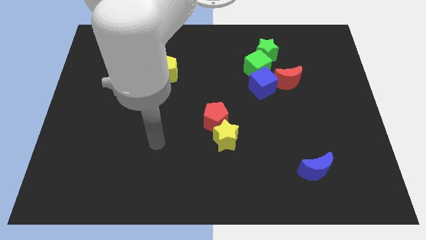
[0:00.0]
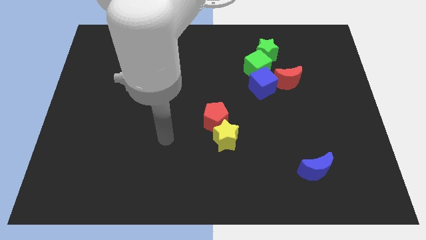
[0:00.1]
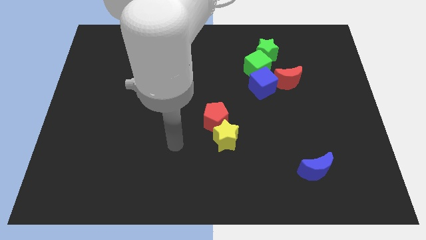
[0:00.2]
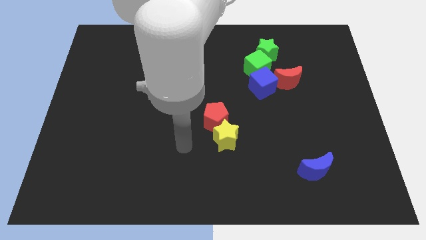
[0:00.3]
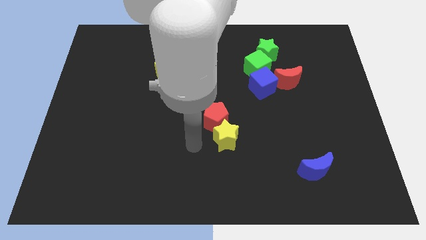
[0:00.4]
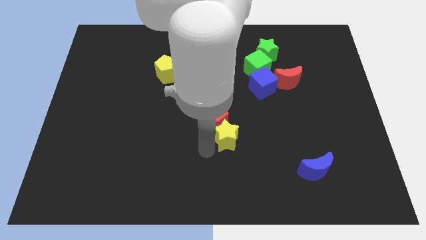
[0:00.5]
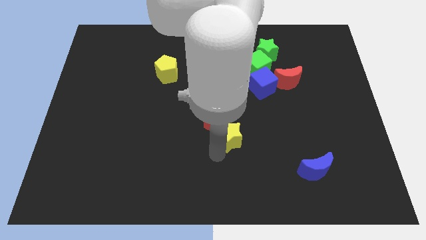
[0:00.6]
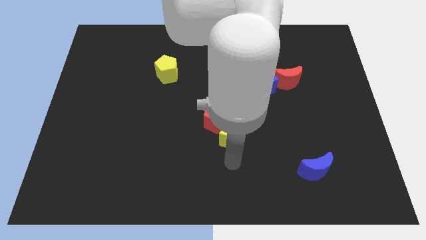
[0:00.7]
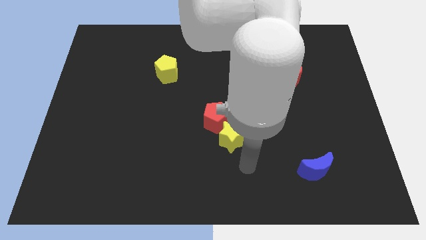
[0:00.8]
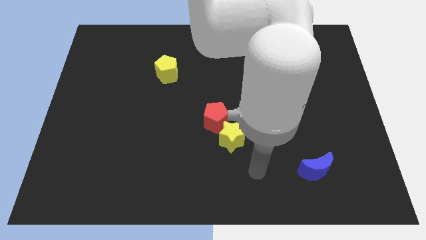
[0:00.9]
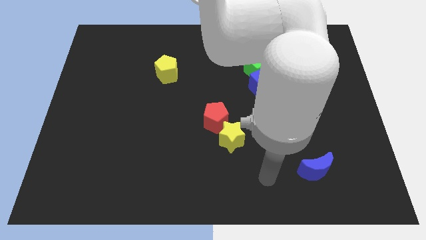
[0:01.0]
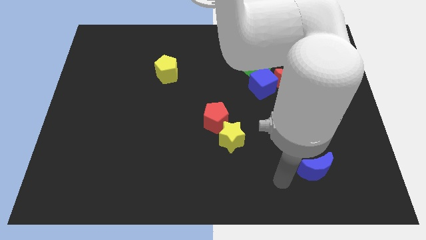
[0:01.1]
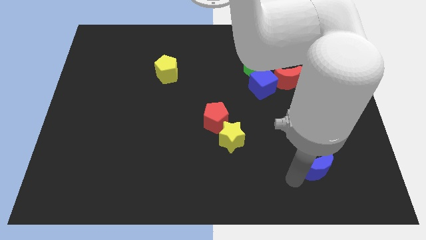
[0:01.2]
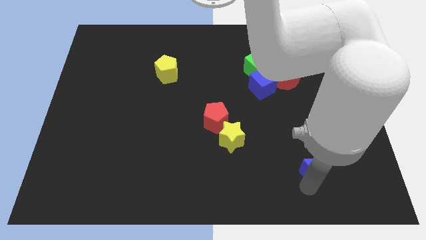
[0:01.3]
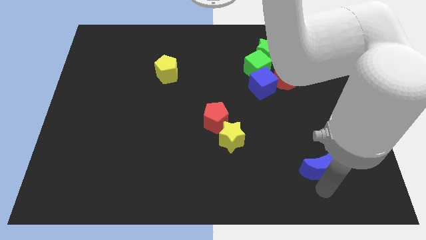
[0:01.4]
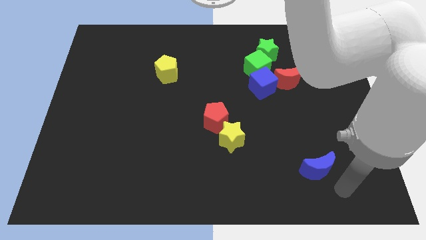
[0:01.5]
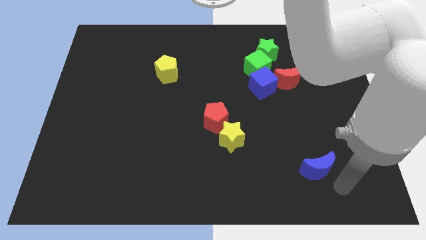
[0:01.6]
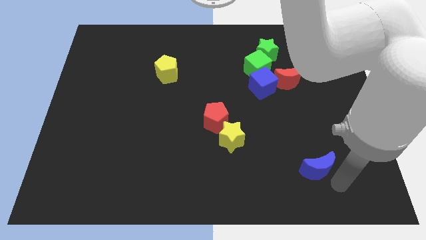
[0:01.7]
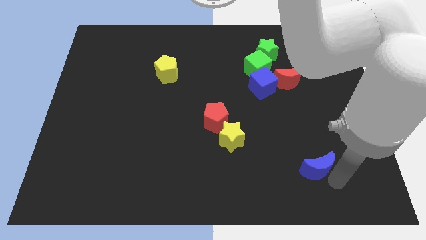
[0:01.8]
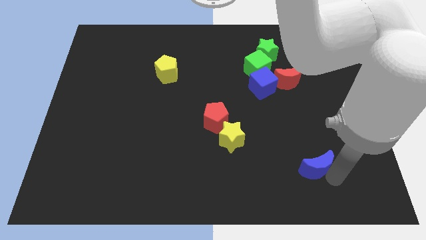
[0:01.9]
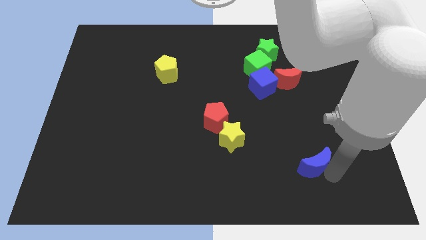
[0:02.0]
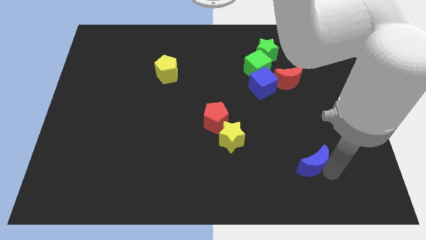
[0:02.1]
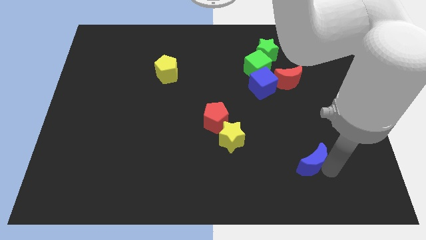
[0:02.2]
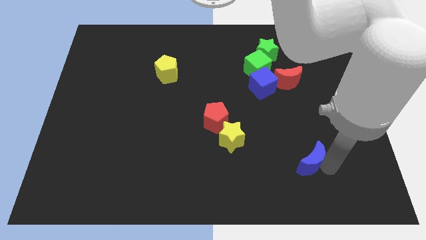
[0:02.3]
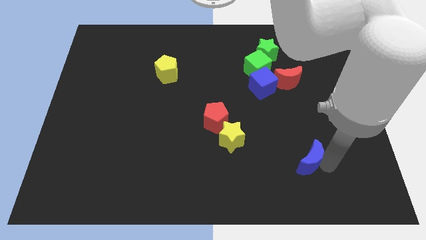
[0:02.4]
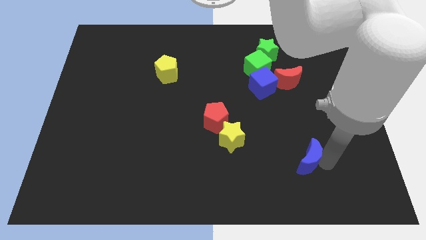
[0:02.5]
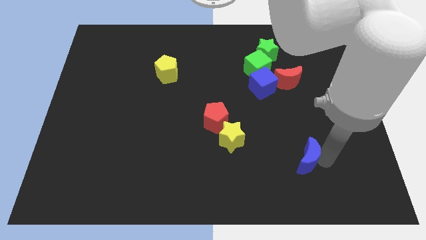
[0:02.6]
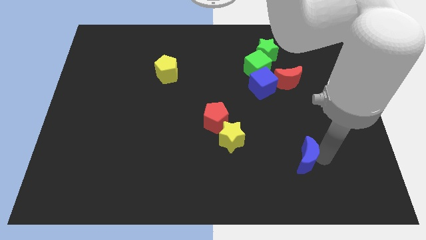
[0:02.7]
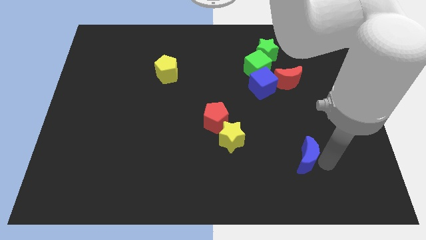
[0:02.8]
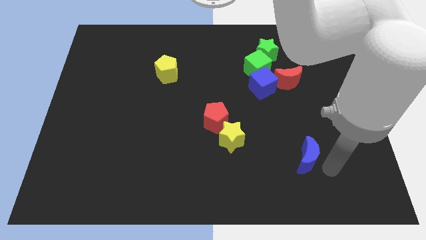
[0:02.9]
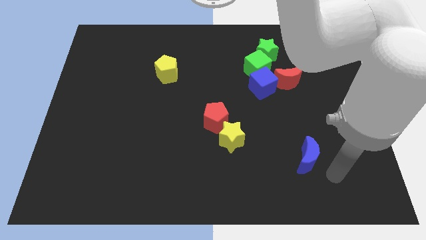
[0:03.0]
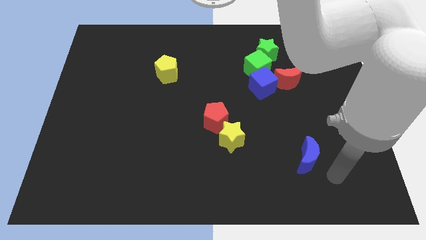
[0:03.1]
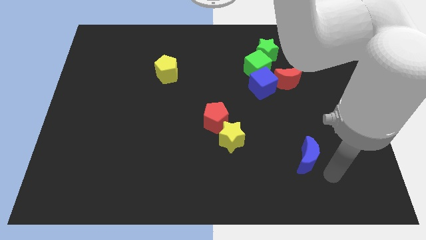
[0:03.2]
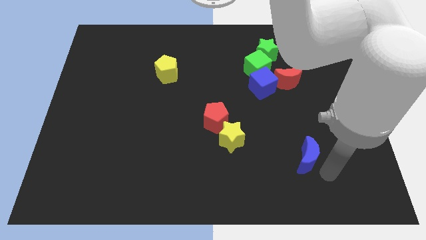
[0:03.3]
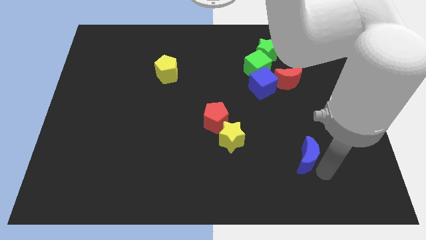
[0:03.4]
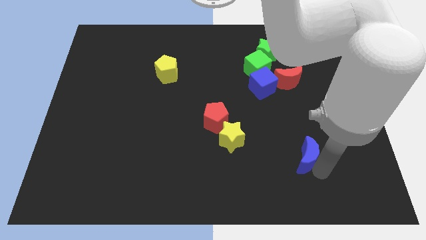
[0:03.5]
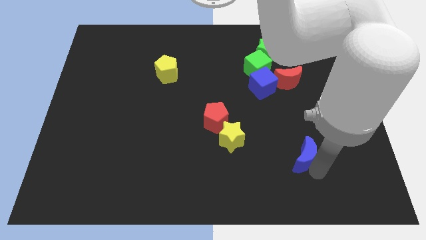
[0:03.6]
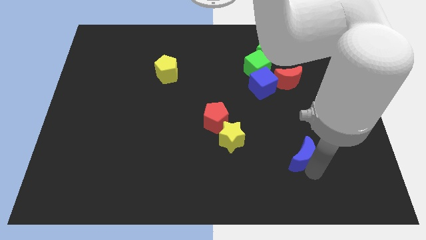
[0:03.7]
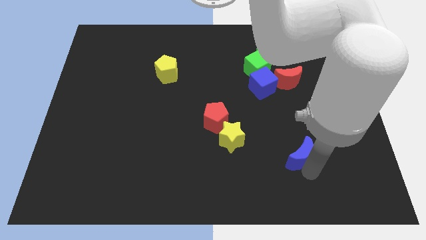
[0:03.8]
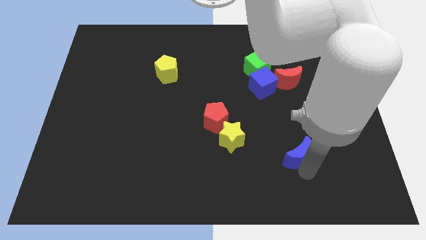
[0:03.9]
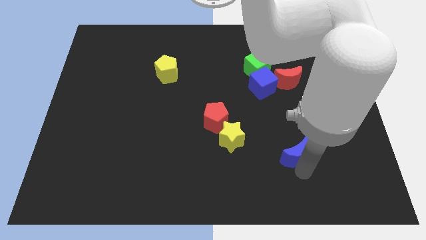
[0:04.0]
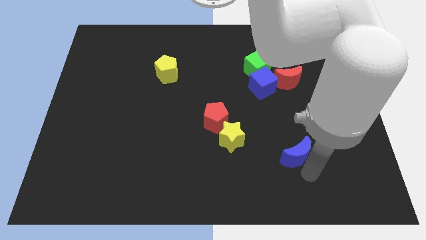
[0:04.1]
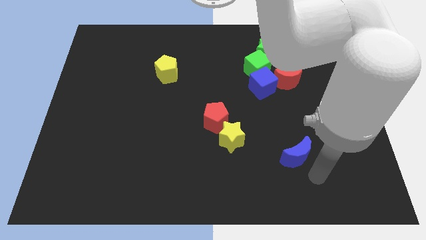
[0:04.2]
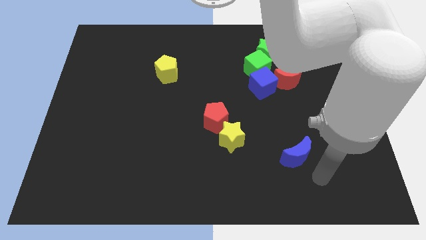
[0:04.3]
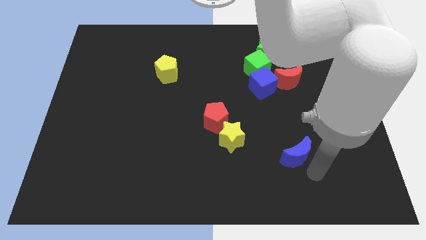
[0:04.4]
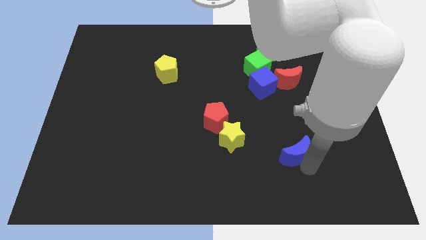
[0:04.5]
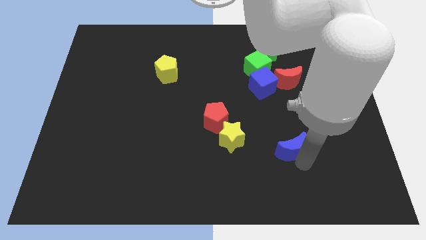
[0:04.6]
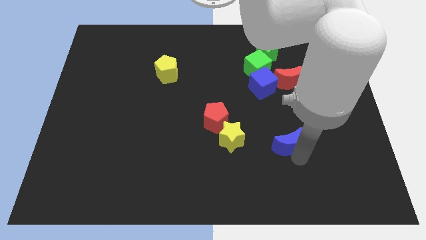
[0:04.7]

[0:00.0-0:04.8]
push the blue moon a bit diagonally upwards and left

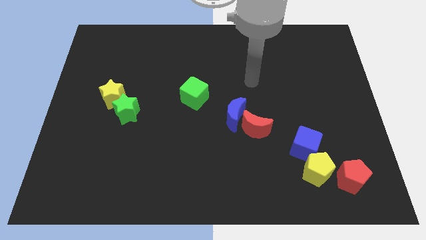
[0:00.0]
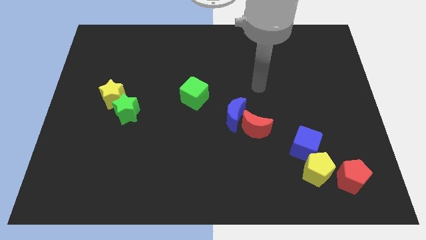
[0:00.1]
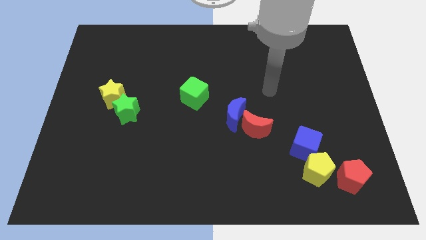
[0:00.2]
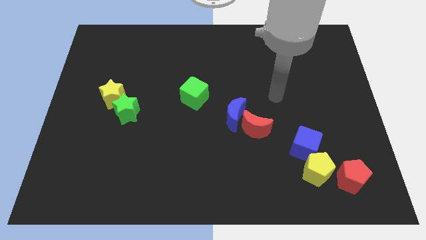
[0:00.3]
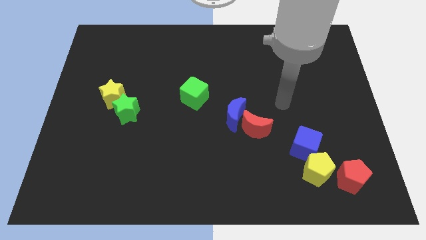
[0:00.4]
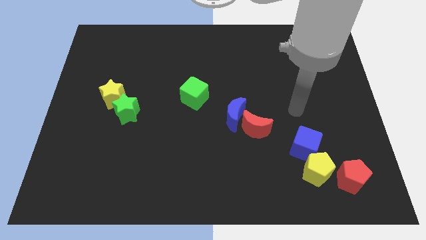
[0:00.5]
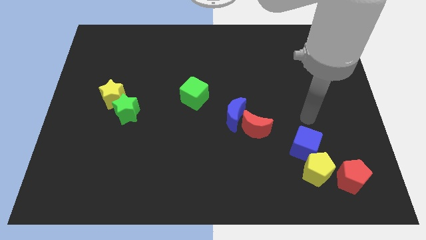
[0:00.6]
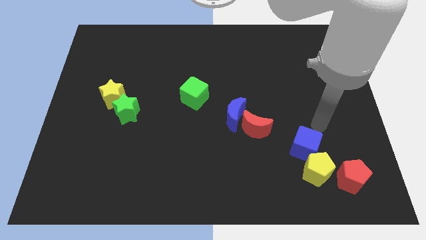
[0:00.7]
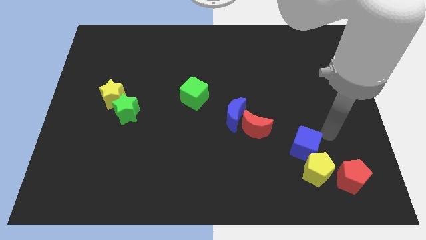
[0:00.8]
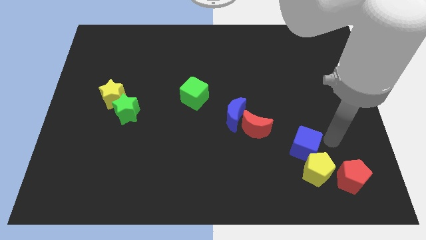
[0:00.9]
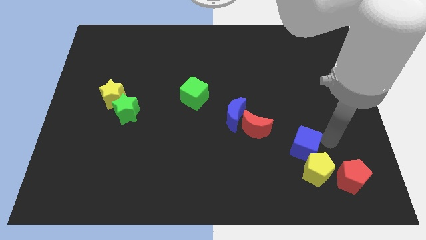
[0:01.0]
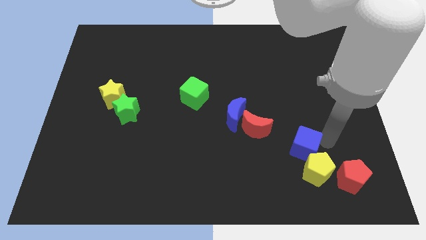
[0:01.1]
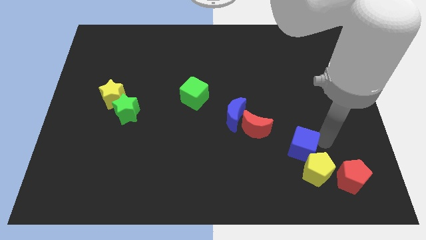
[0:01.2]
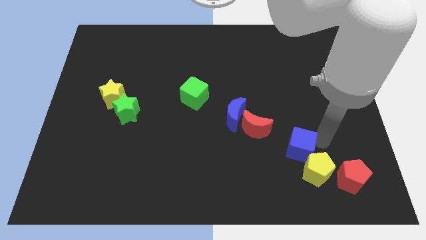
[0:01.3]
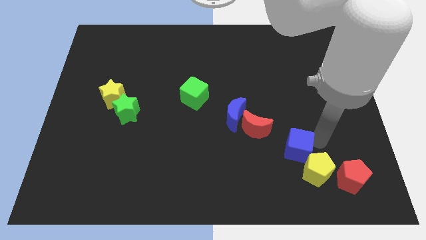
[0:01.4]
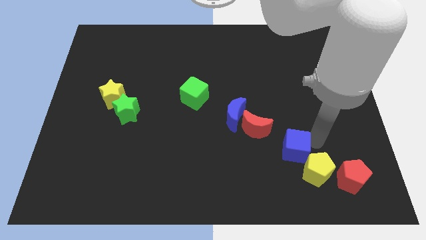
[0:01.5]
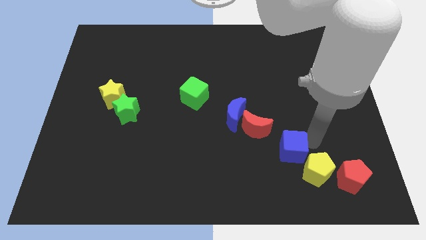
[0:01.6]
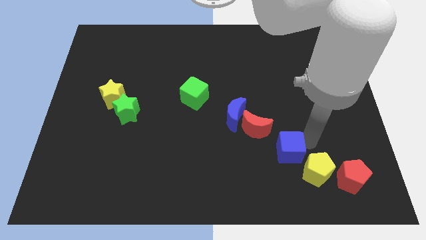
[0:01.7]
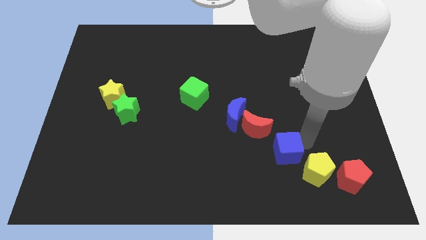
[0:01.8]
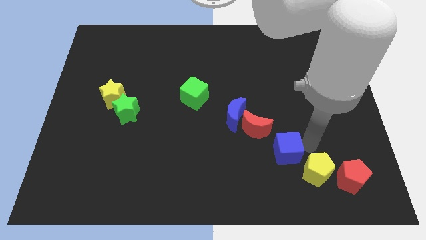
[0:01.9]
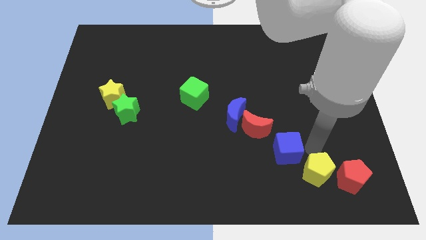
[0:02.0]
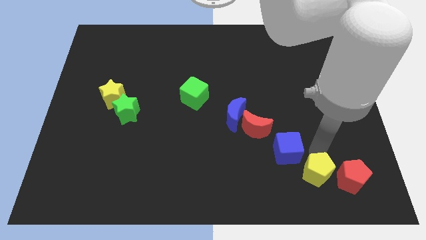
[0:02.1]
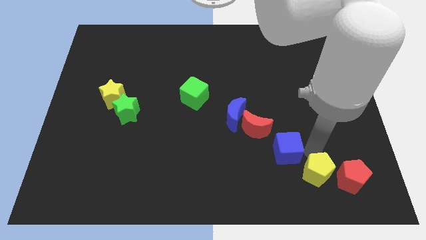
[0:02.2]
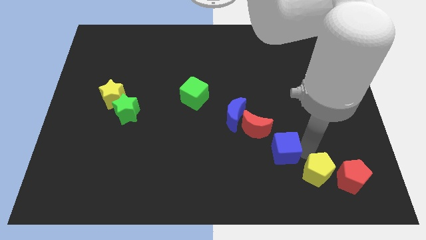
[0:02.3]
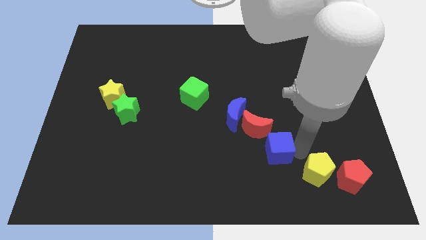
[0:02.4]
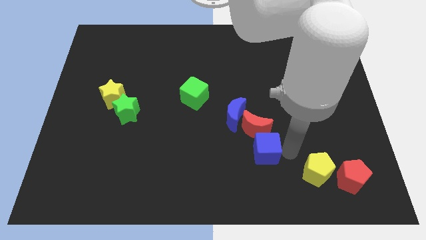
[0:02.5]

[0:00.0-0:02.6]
push the blue cube to the left a bit

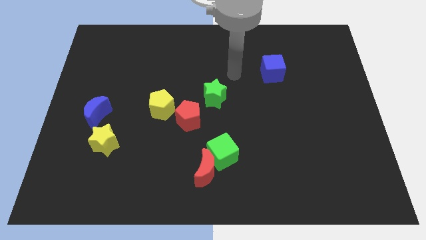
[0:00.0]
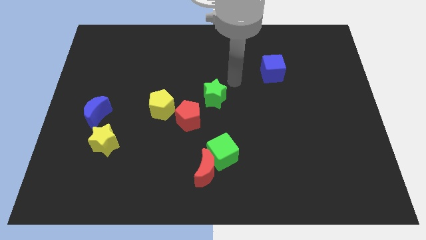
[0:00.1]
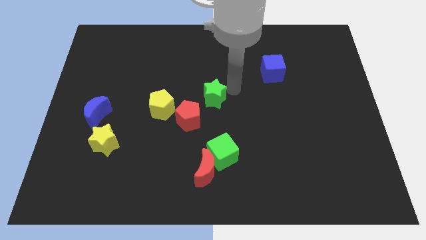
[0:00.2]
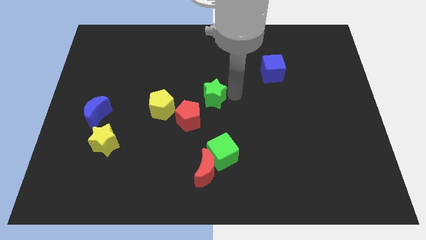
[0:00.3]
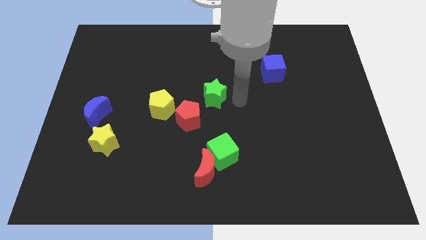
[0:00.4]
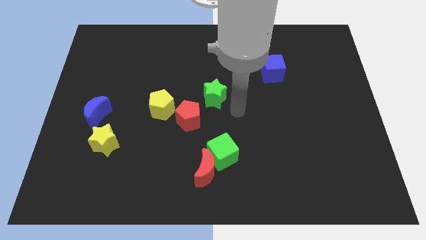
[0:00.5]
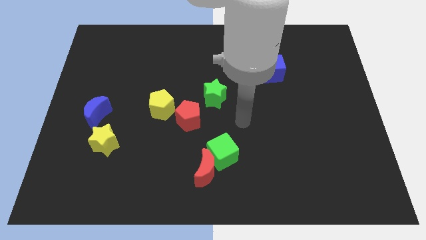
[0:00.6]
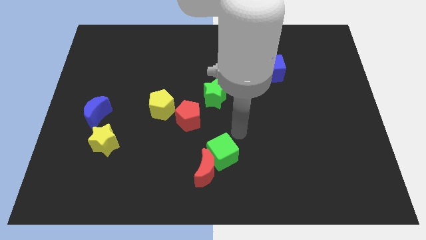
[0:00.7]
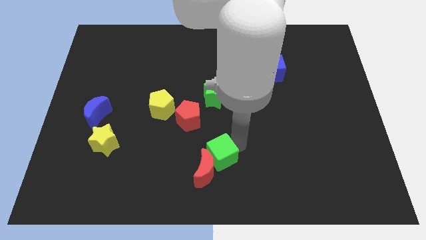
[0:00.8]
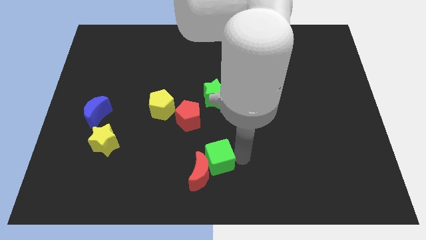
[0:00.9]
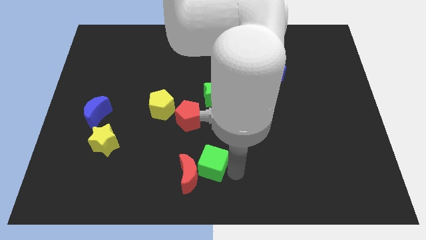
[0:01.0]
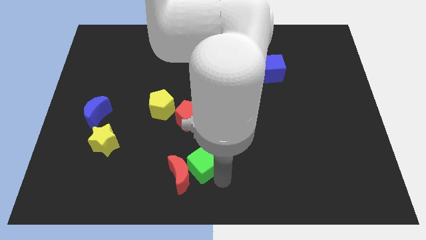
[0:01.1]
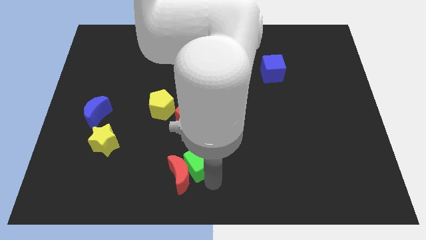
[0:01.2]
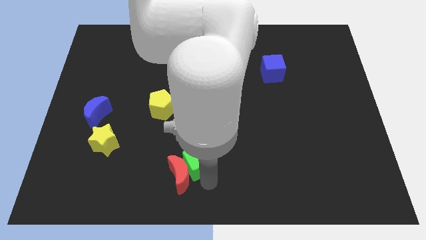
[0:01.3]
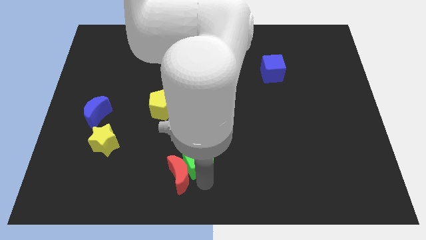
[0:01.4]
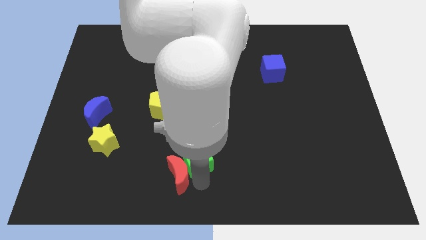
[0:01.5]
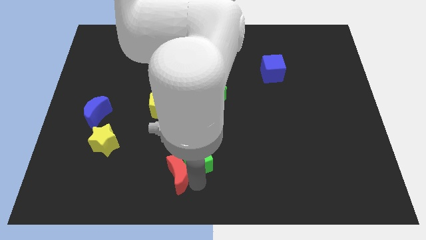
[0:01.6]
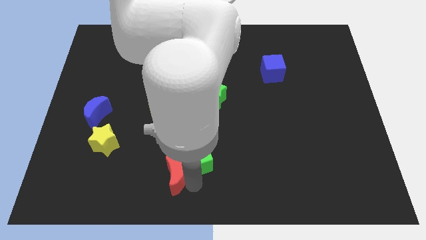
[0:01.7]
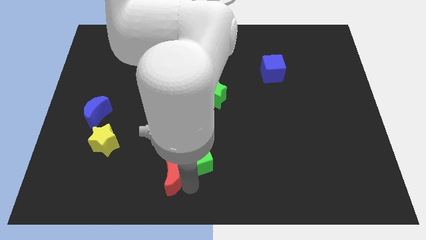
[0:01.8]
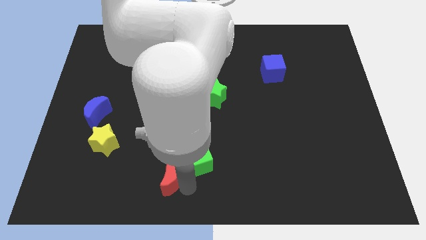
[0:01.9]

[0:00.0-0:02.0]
slide the red moon left a little
